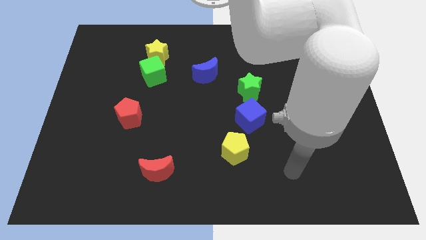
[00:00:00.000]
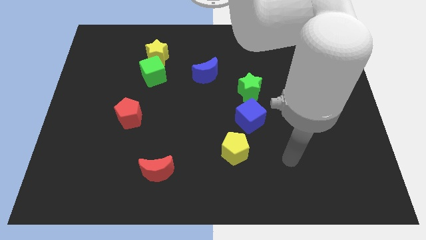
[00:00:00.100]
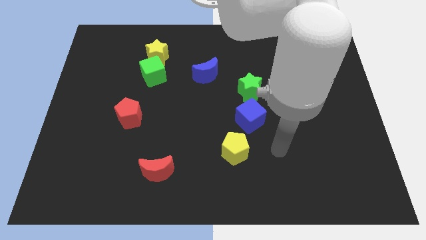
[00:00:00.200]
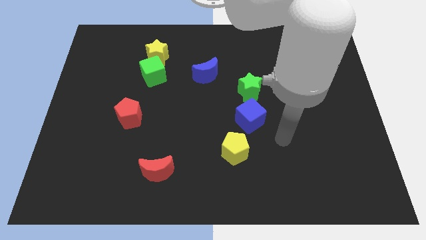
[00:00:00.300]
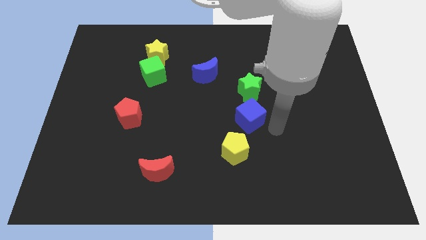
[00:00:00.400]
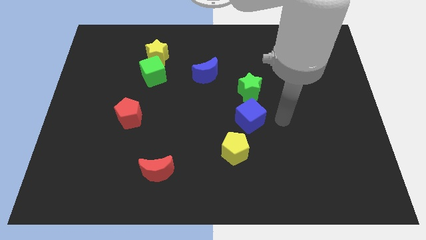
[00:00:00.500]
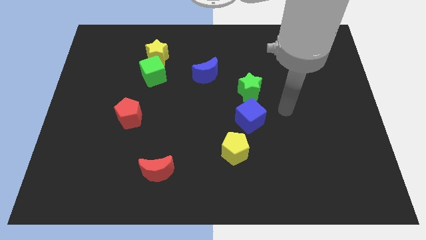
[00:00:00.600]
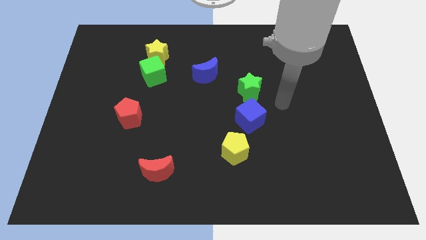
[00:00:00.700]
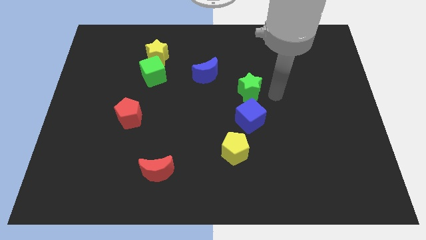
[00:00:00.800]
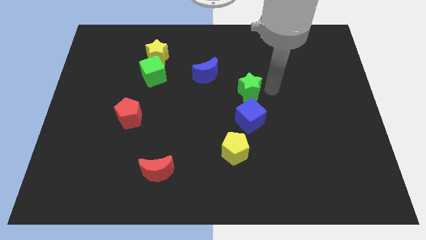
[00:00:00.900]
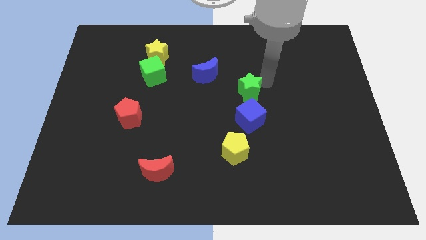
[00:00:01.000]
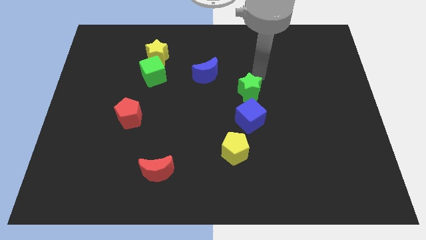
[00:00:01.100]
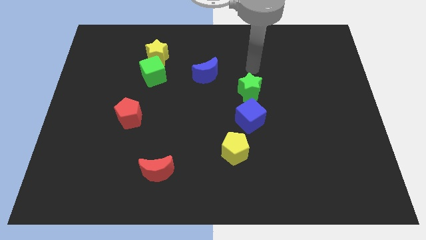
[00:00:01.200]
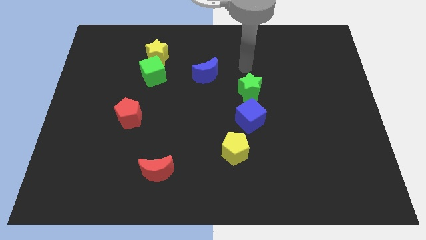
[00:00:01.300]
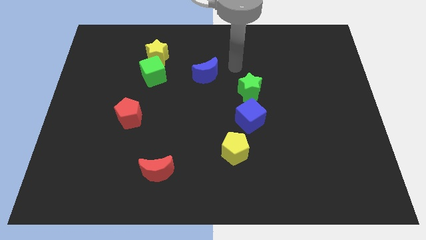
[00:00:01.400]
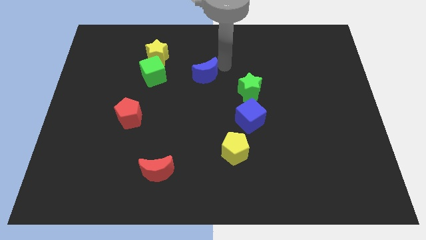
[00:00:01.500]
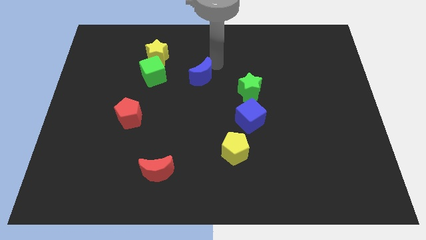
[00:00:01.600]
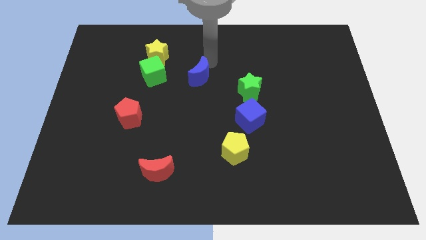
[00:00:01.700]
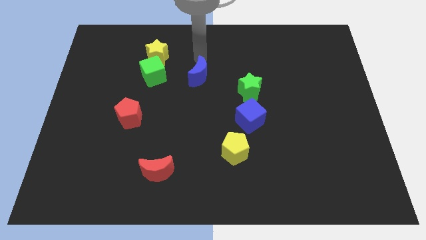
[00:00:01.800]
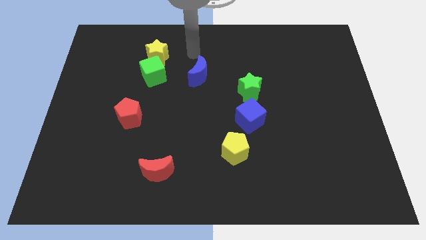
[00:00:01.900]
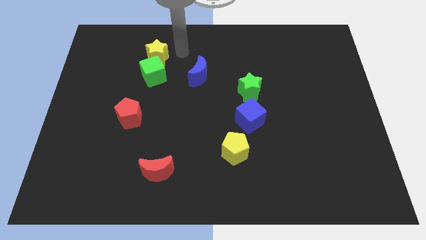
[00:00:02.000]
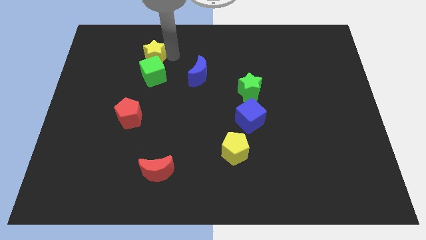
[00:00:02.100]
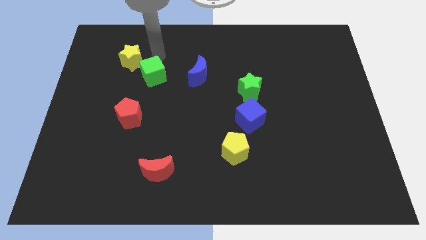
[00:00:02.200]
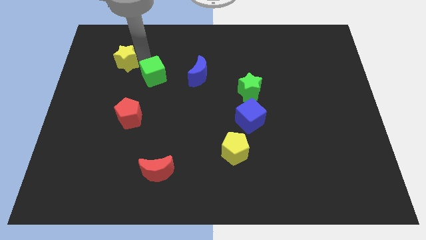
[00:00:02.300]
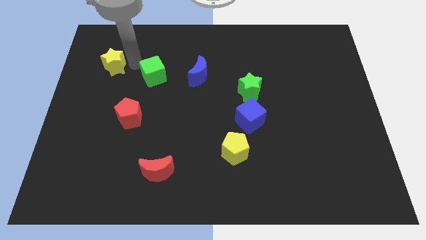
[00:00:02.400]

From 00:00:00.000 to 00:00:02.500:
separate the green cube from the yellow star

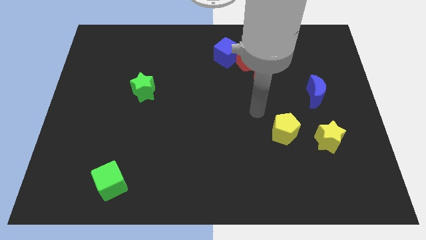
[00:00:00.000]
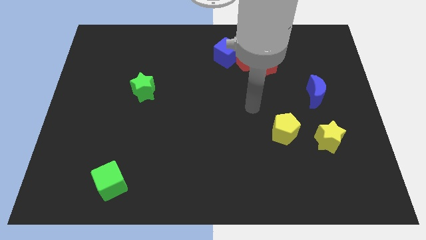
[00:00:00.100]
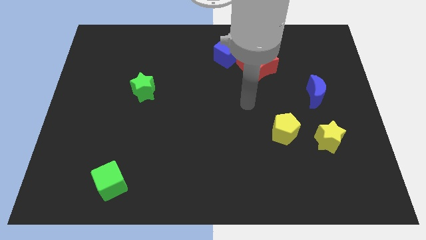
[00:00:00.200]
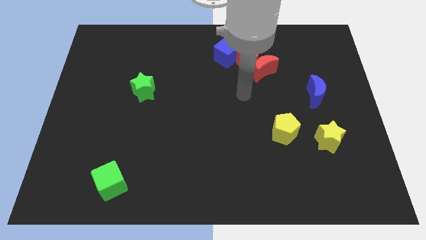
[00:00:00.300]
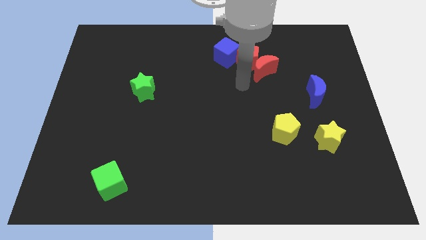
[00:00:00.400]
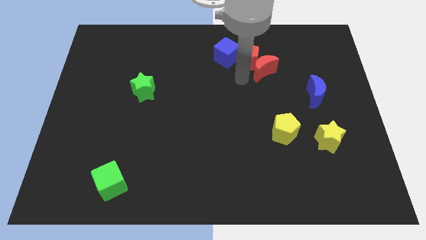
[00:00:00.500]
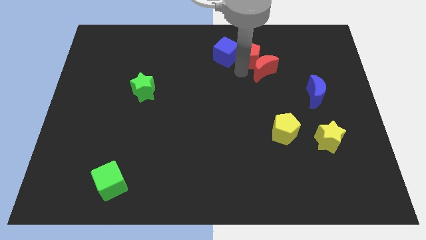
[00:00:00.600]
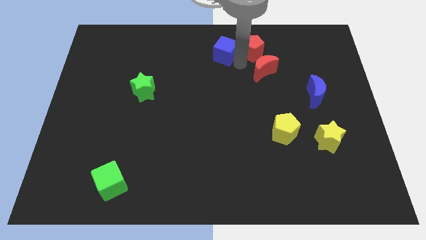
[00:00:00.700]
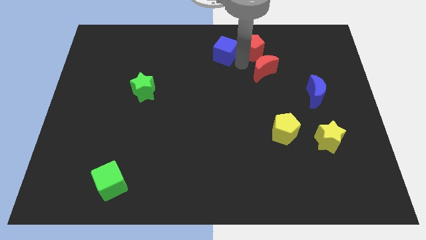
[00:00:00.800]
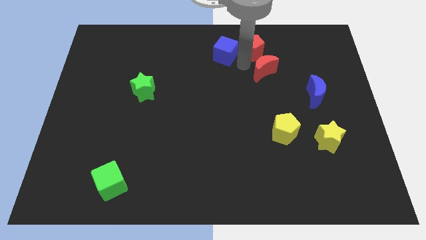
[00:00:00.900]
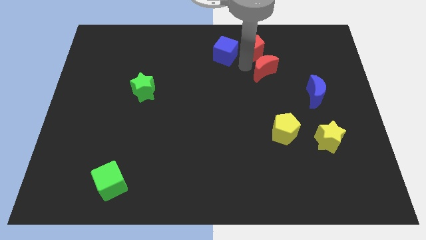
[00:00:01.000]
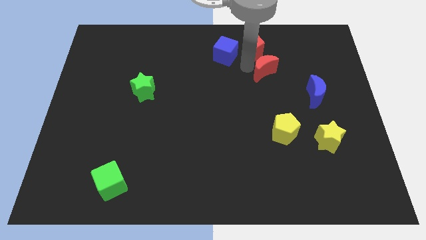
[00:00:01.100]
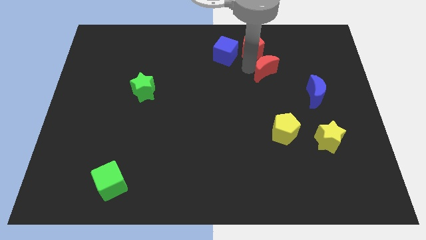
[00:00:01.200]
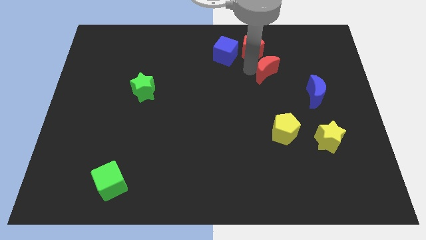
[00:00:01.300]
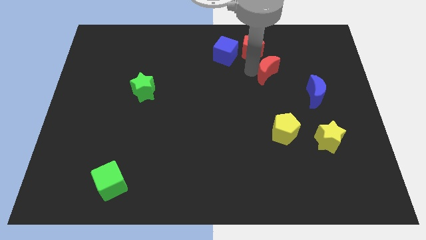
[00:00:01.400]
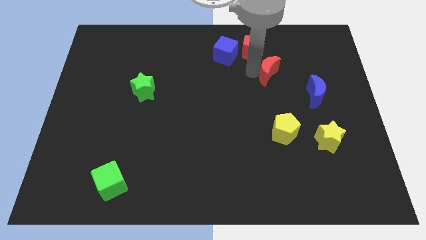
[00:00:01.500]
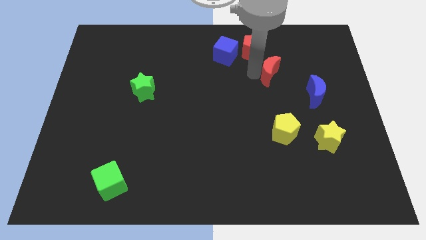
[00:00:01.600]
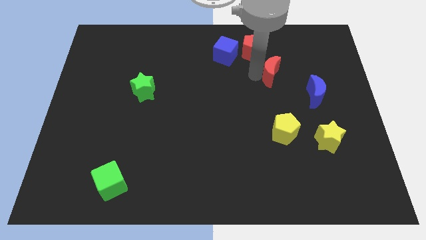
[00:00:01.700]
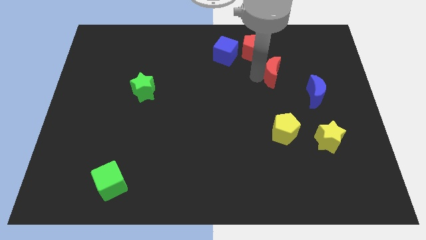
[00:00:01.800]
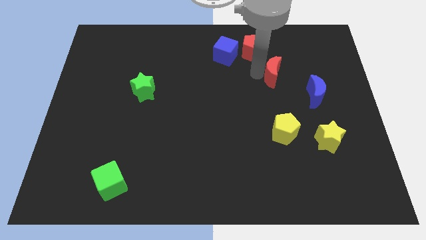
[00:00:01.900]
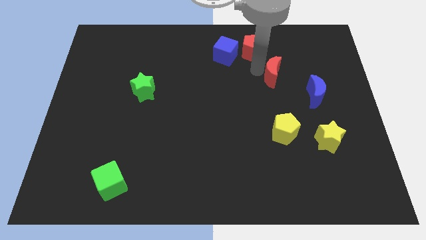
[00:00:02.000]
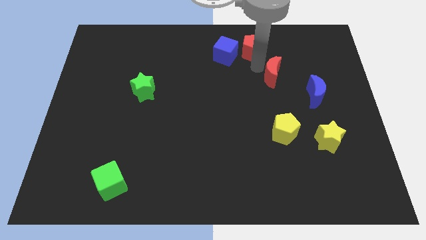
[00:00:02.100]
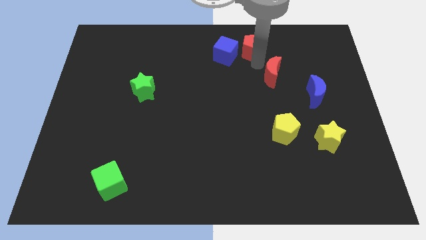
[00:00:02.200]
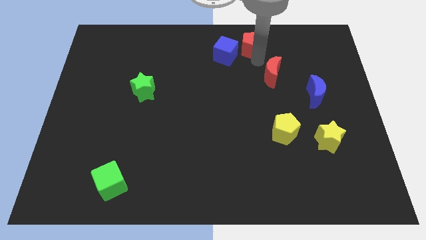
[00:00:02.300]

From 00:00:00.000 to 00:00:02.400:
separate the red moon from the red pentagon

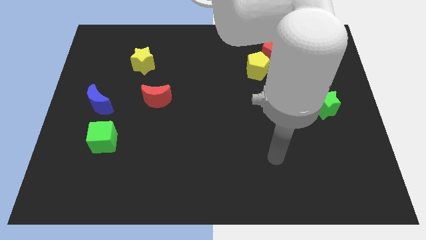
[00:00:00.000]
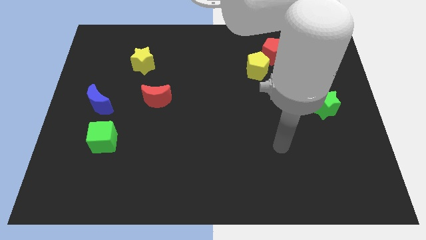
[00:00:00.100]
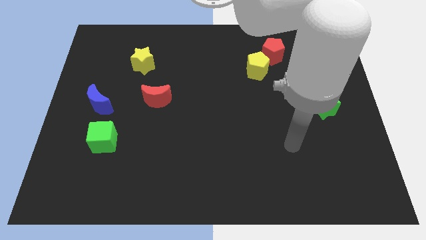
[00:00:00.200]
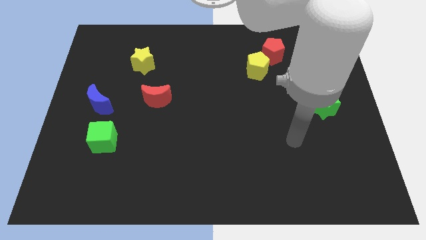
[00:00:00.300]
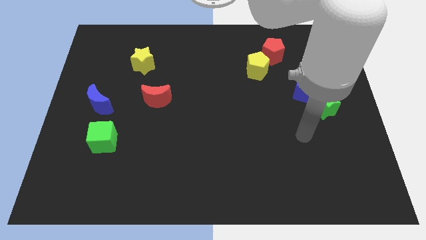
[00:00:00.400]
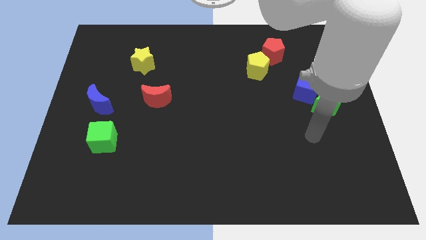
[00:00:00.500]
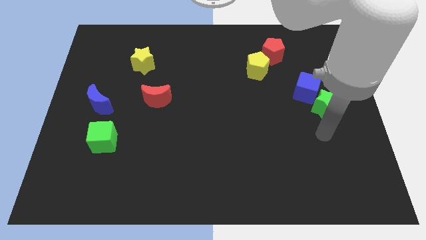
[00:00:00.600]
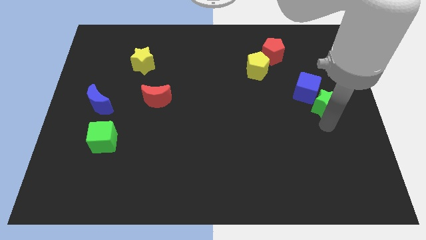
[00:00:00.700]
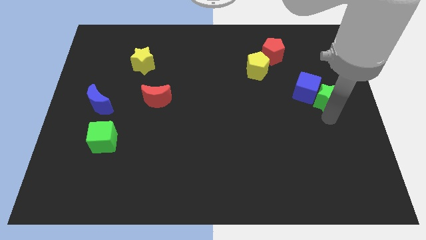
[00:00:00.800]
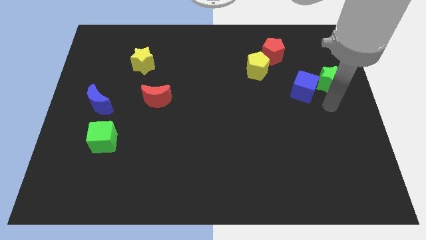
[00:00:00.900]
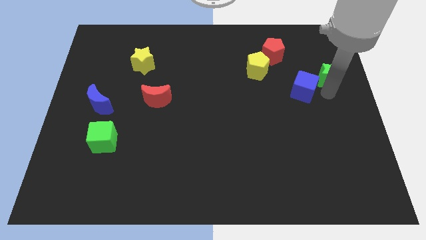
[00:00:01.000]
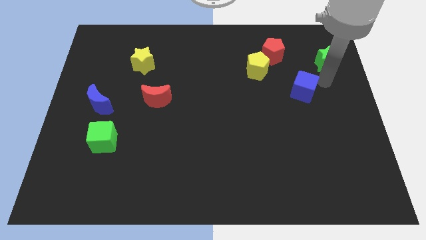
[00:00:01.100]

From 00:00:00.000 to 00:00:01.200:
move the blue cube away from the green star

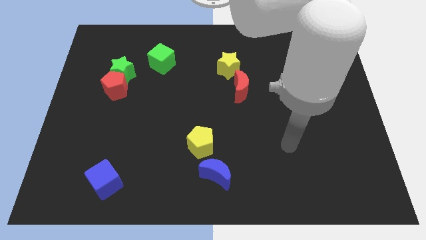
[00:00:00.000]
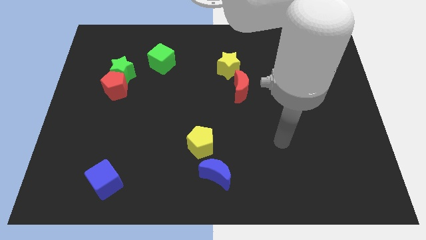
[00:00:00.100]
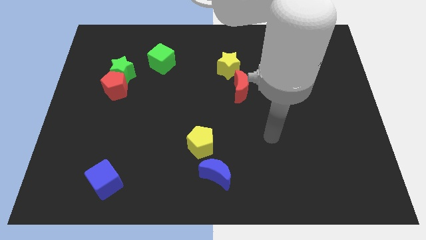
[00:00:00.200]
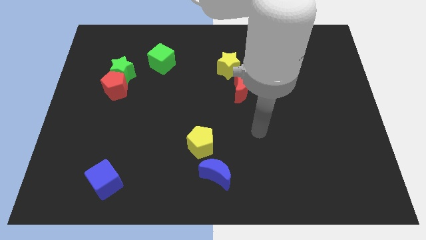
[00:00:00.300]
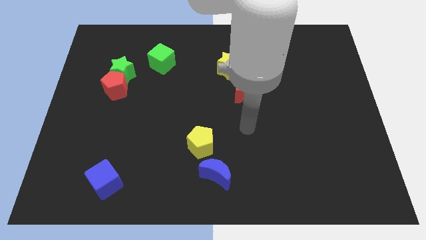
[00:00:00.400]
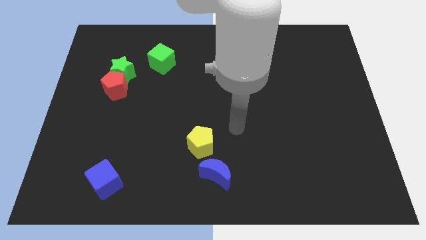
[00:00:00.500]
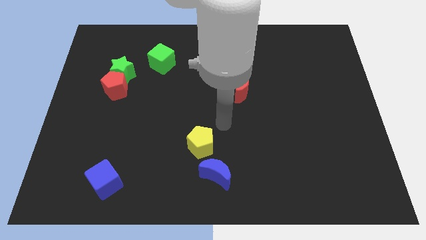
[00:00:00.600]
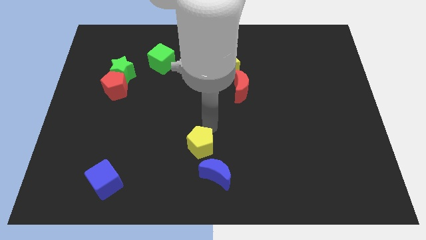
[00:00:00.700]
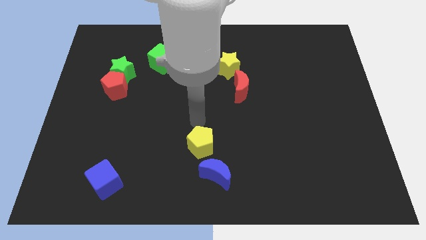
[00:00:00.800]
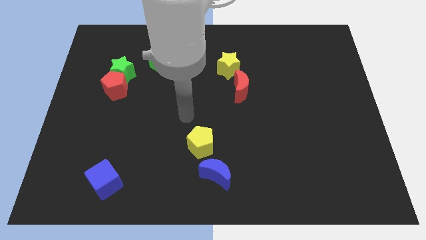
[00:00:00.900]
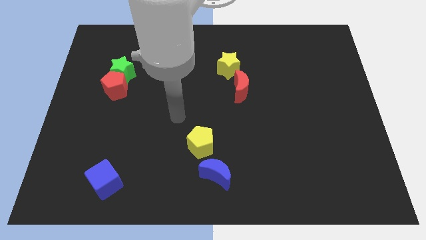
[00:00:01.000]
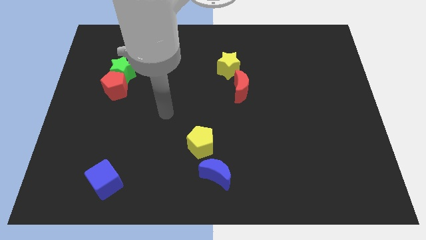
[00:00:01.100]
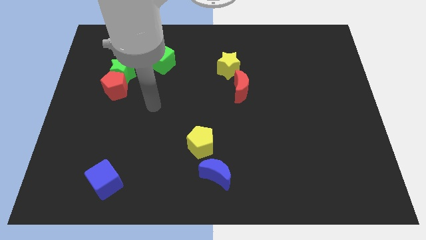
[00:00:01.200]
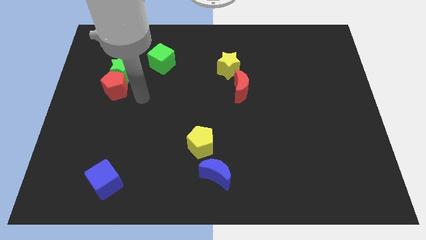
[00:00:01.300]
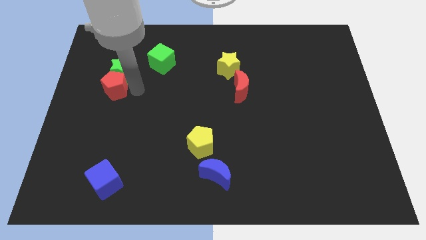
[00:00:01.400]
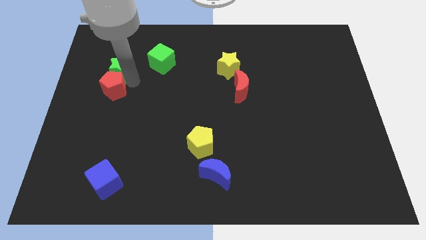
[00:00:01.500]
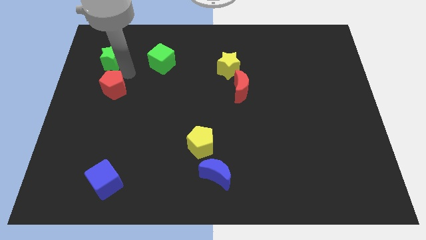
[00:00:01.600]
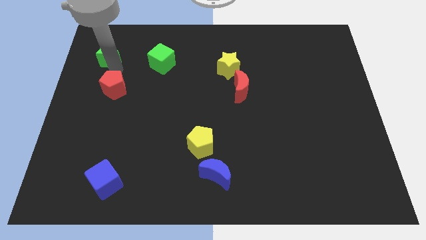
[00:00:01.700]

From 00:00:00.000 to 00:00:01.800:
pull the red pentagon apart from the green star

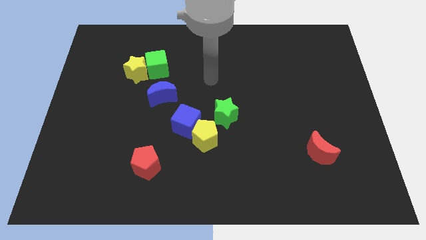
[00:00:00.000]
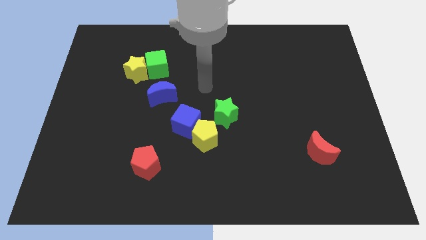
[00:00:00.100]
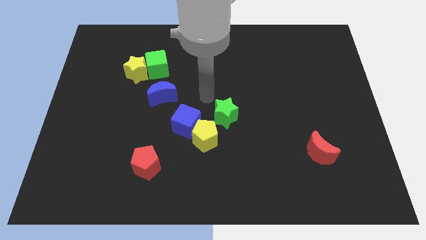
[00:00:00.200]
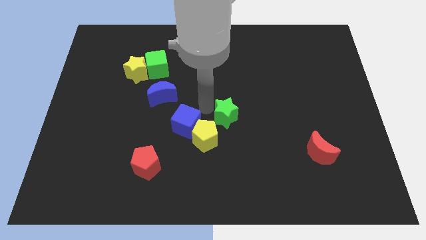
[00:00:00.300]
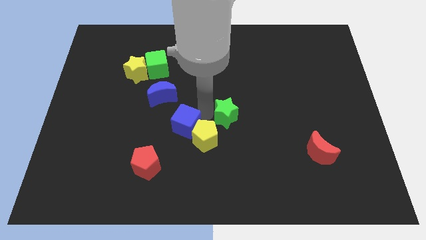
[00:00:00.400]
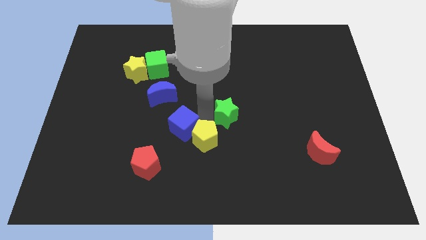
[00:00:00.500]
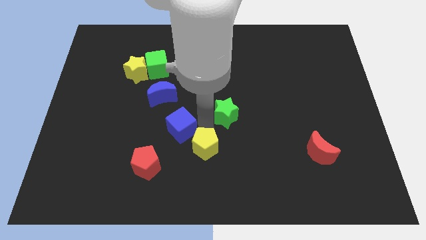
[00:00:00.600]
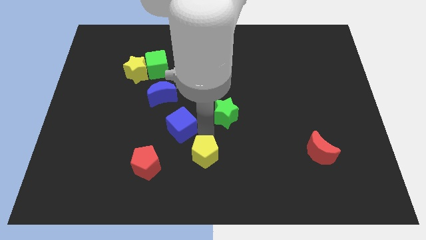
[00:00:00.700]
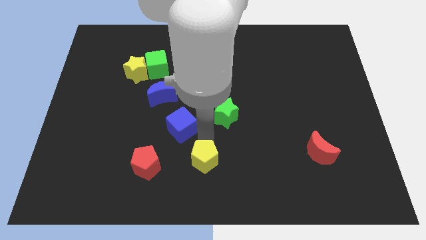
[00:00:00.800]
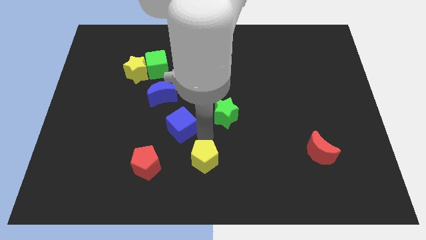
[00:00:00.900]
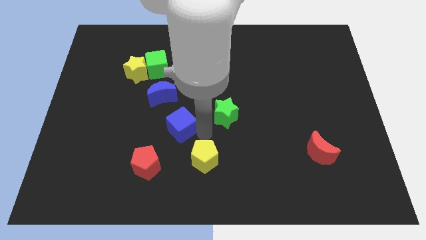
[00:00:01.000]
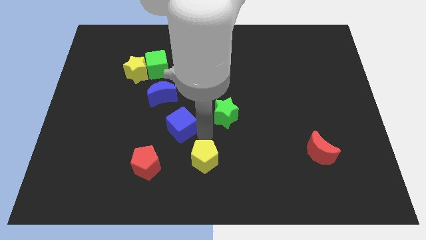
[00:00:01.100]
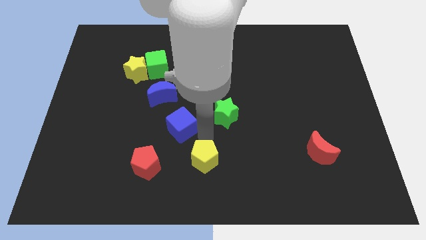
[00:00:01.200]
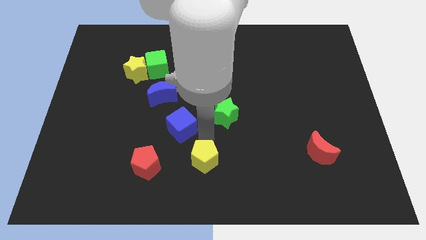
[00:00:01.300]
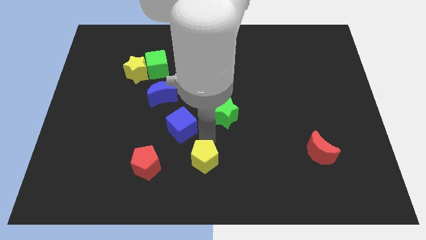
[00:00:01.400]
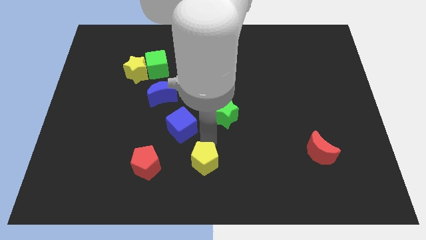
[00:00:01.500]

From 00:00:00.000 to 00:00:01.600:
move the yellow pentagon away from the blue cube and green star
